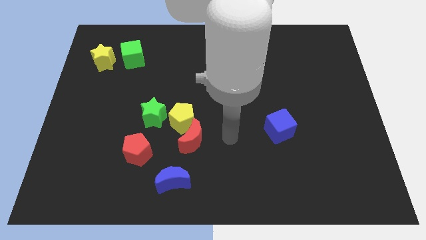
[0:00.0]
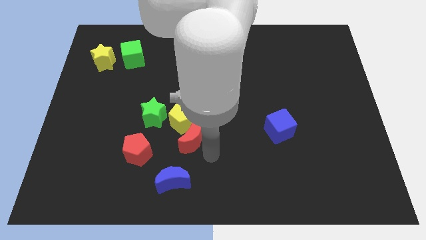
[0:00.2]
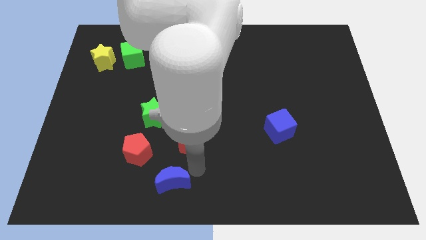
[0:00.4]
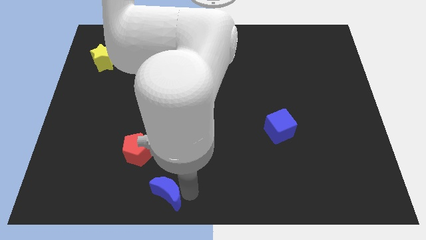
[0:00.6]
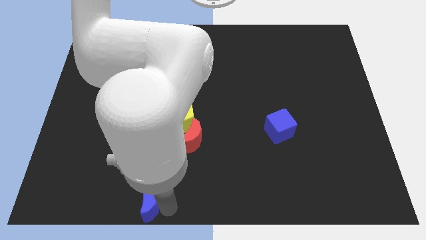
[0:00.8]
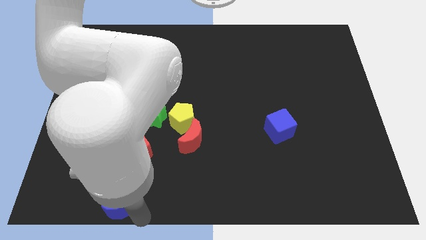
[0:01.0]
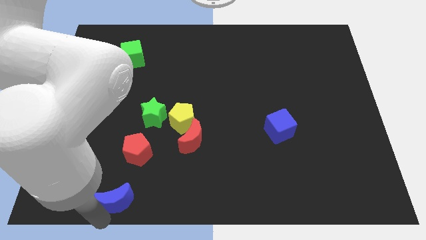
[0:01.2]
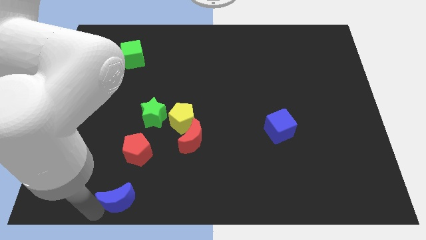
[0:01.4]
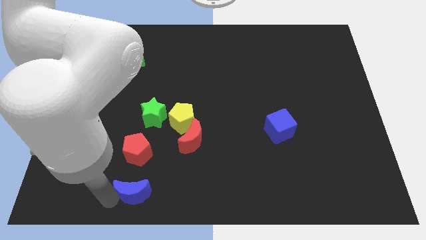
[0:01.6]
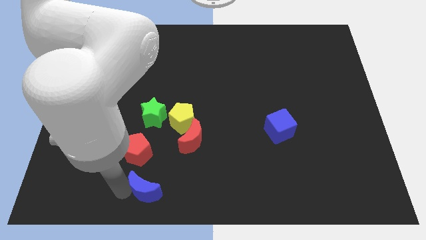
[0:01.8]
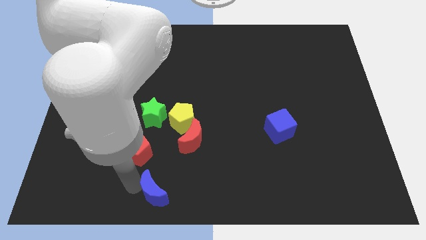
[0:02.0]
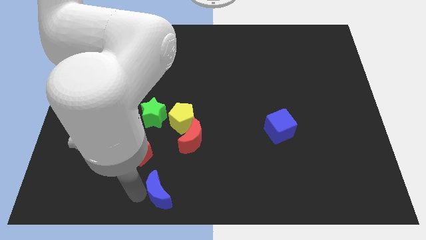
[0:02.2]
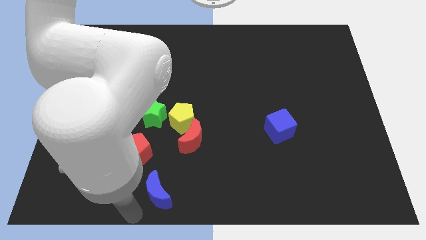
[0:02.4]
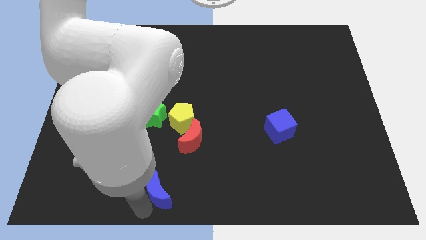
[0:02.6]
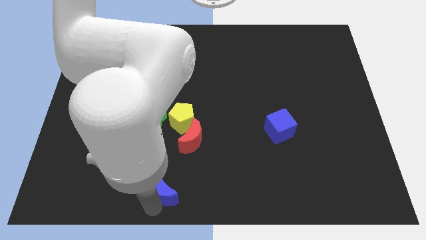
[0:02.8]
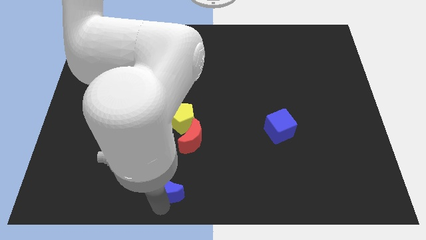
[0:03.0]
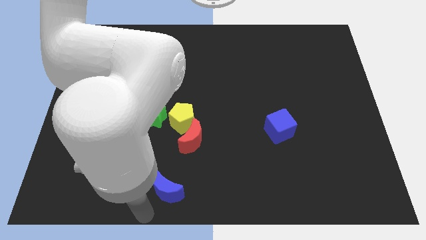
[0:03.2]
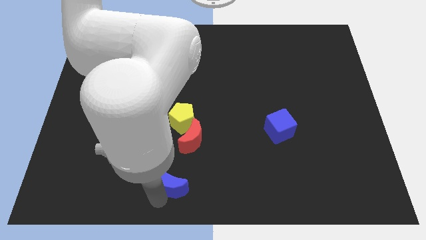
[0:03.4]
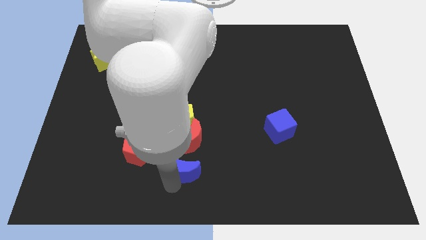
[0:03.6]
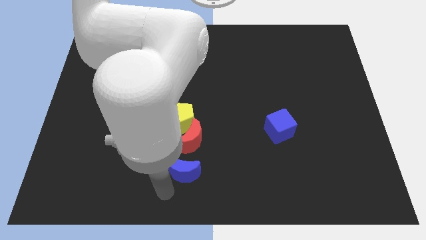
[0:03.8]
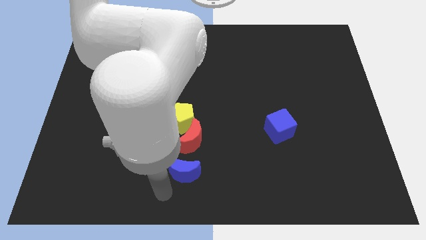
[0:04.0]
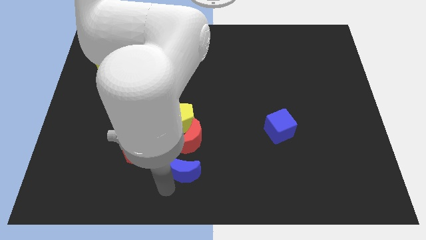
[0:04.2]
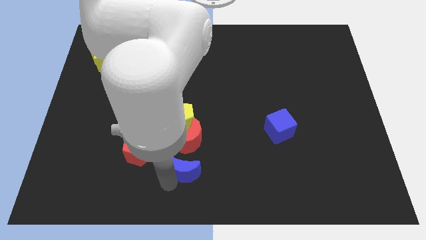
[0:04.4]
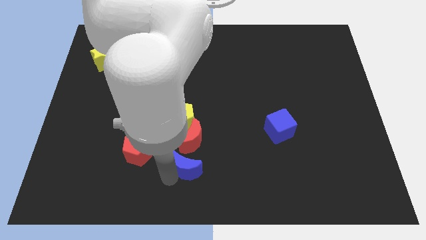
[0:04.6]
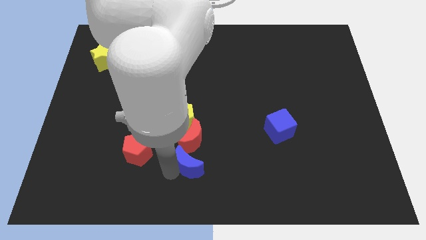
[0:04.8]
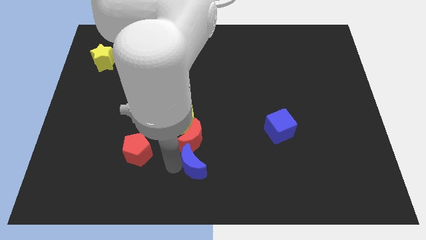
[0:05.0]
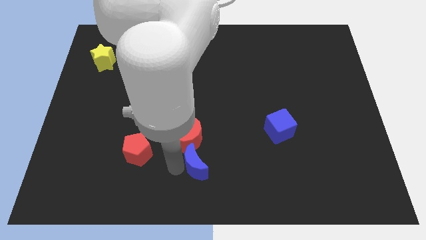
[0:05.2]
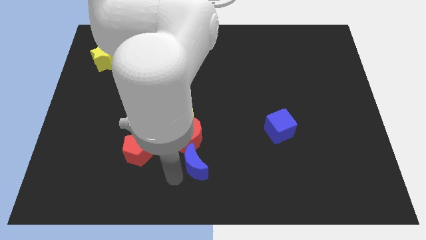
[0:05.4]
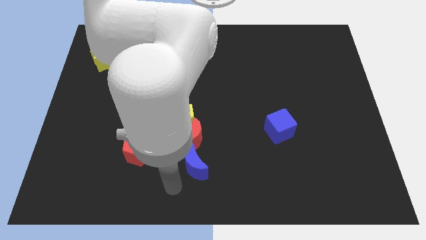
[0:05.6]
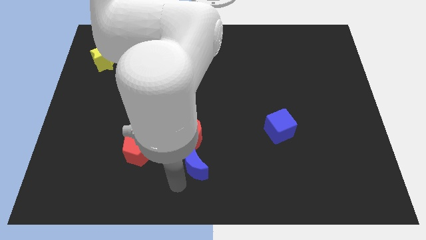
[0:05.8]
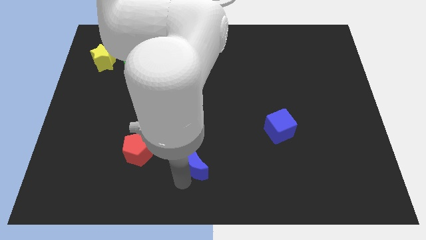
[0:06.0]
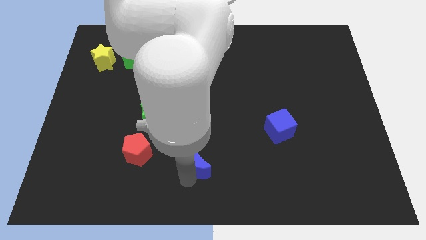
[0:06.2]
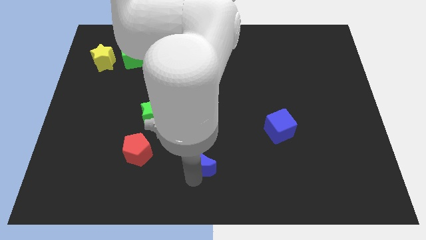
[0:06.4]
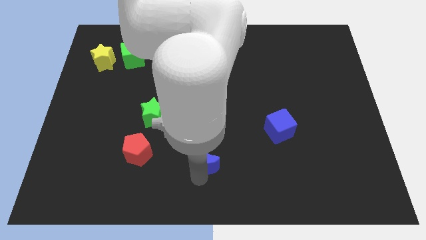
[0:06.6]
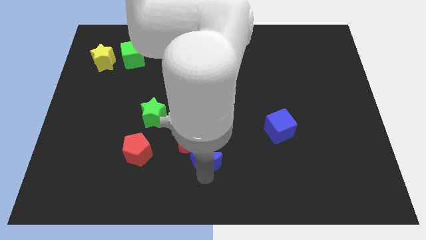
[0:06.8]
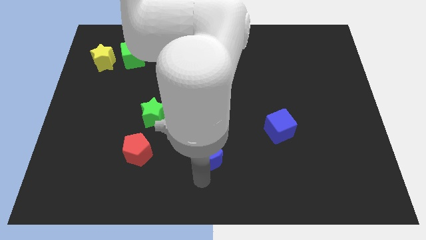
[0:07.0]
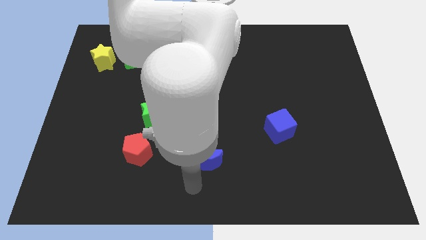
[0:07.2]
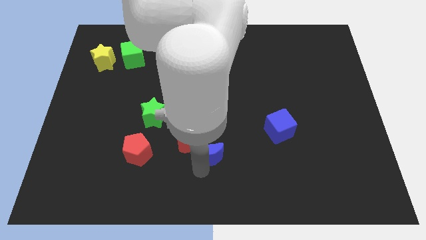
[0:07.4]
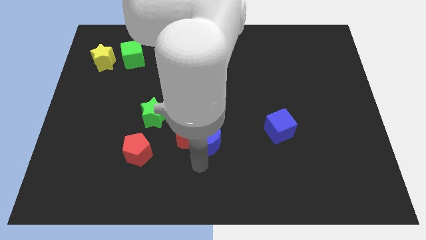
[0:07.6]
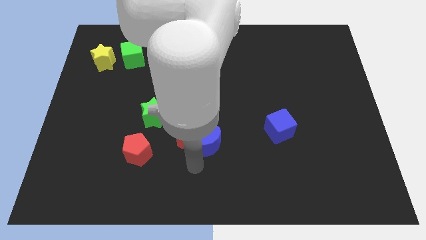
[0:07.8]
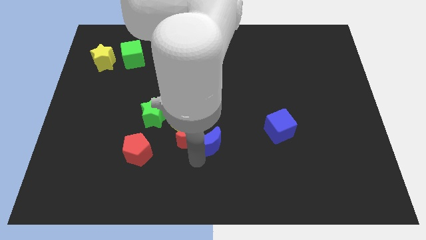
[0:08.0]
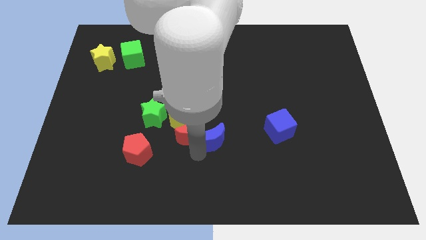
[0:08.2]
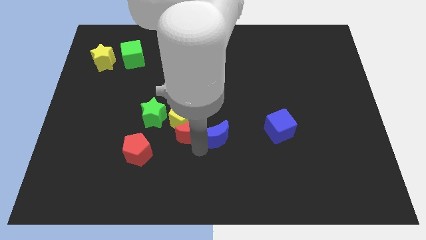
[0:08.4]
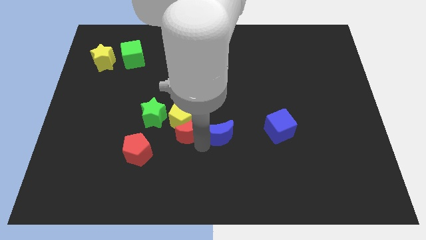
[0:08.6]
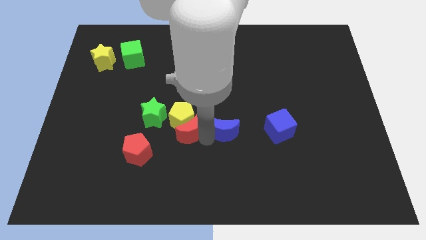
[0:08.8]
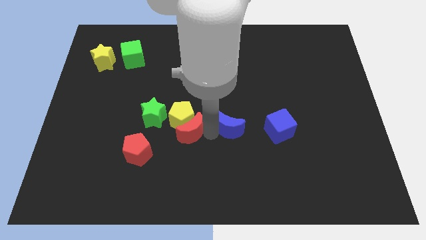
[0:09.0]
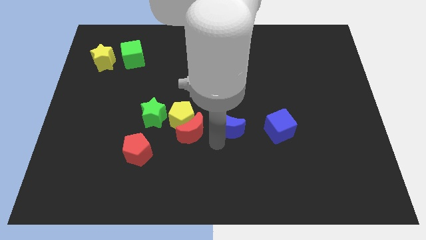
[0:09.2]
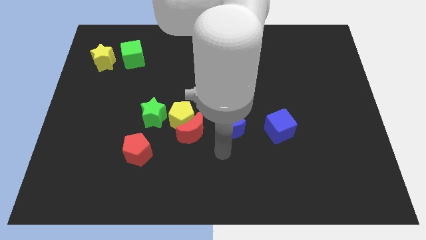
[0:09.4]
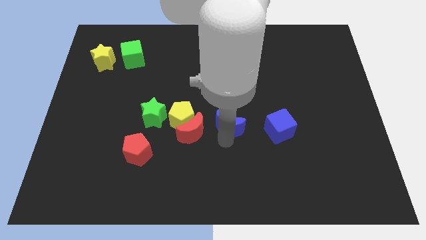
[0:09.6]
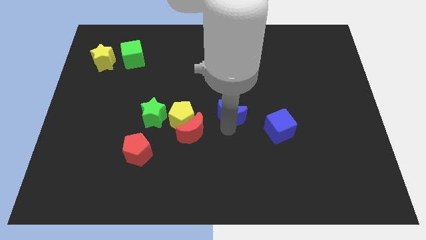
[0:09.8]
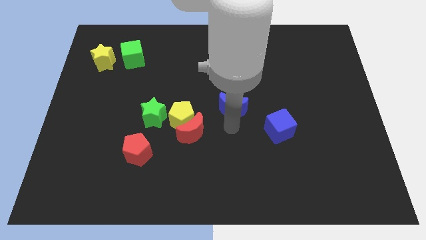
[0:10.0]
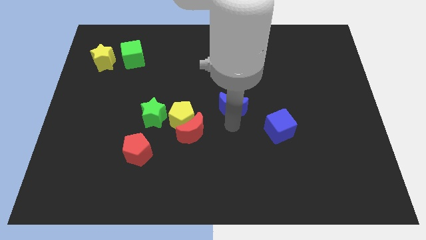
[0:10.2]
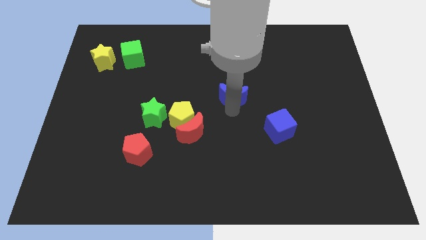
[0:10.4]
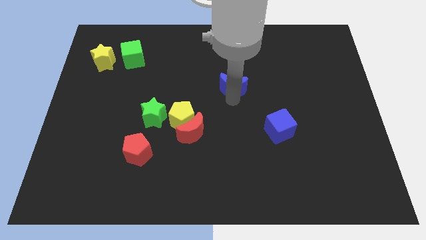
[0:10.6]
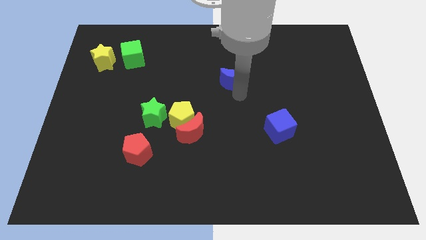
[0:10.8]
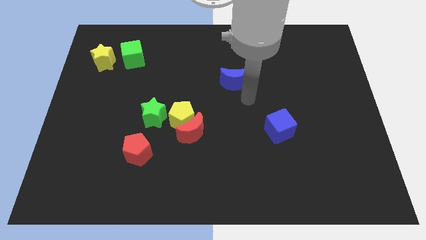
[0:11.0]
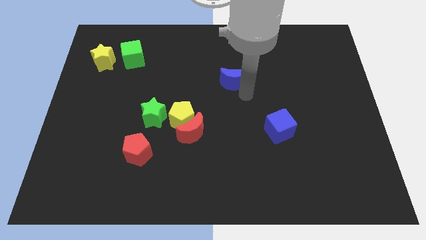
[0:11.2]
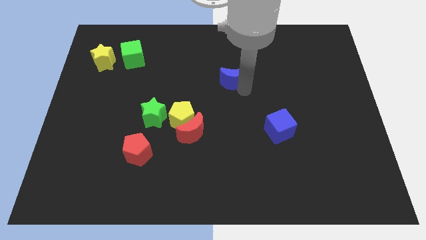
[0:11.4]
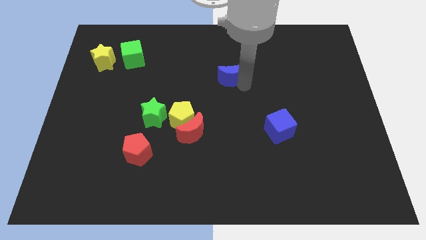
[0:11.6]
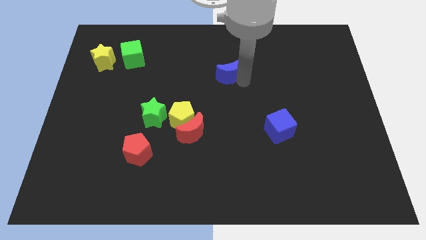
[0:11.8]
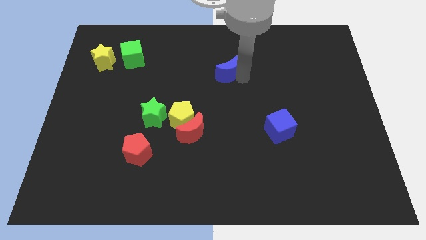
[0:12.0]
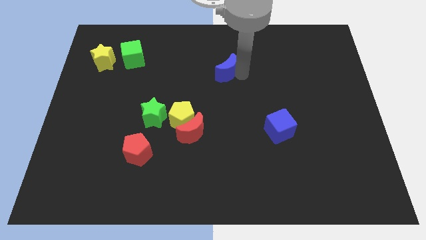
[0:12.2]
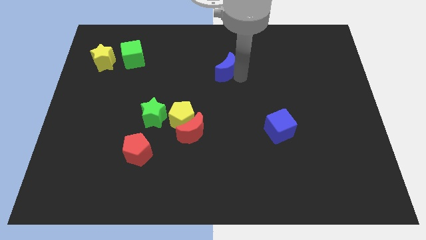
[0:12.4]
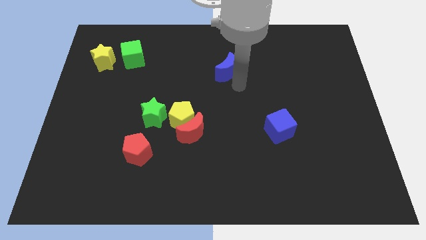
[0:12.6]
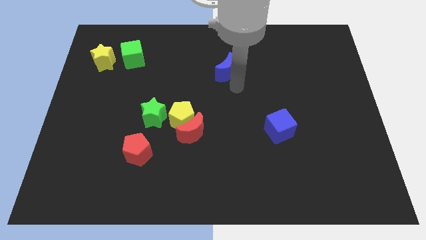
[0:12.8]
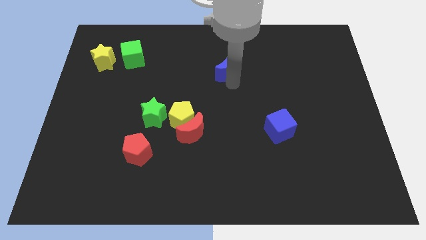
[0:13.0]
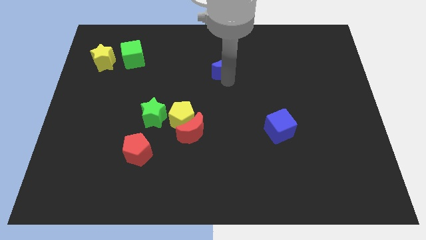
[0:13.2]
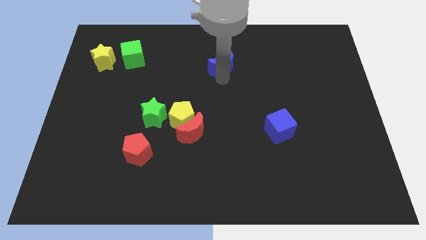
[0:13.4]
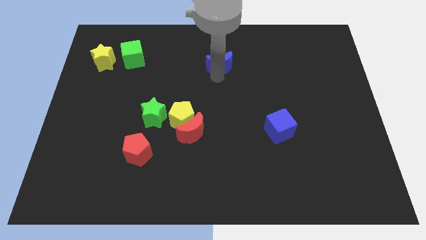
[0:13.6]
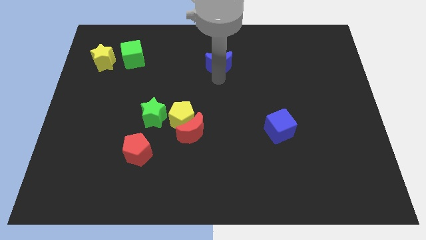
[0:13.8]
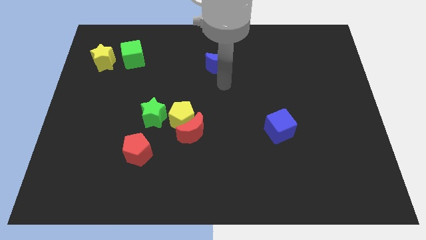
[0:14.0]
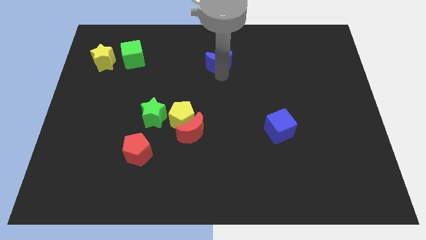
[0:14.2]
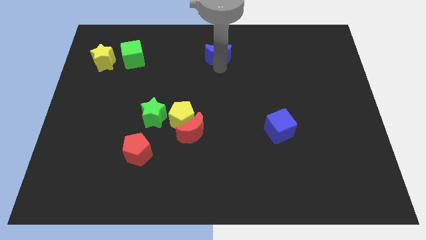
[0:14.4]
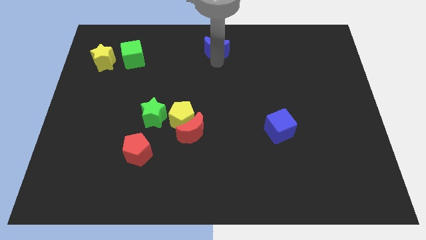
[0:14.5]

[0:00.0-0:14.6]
push the blue moon to the top

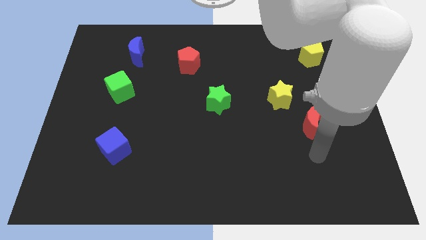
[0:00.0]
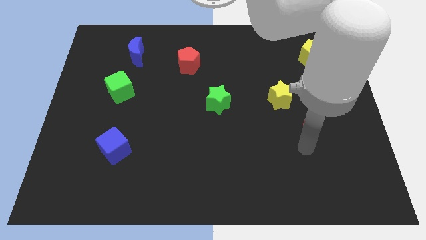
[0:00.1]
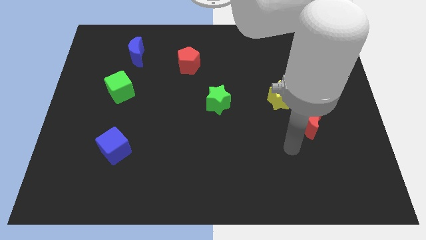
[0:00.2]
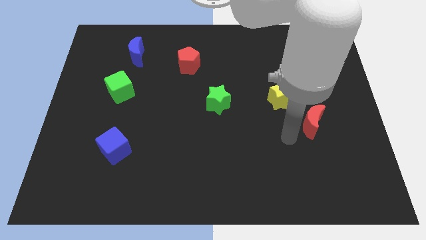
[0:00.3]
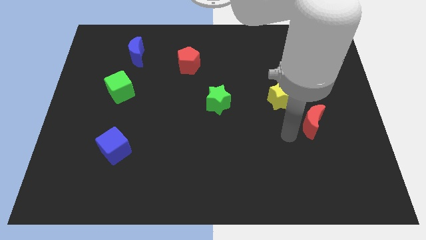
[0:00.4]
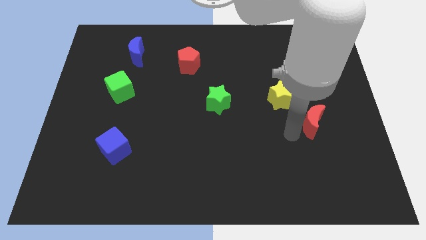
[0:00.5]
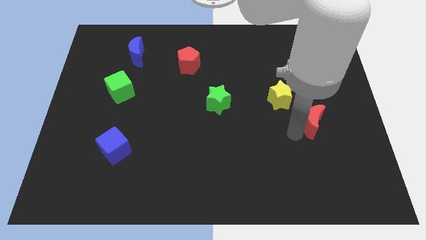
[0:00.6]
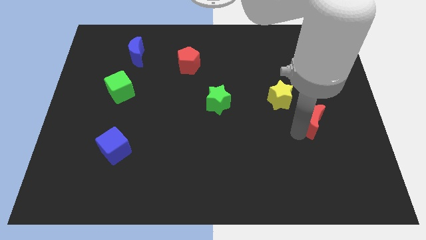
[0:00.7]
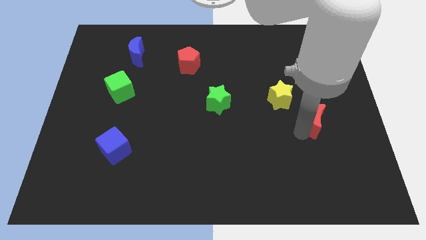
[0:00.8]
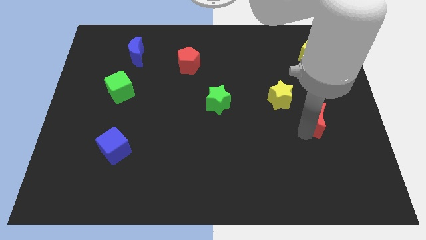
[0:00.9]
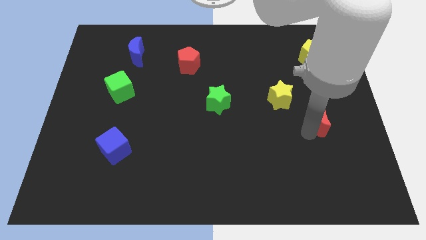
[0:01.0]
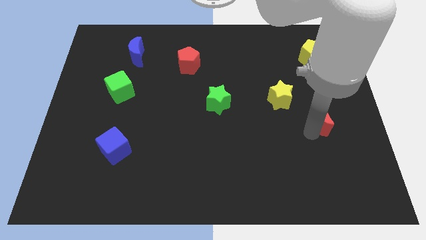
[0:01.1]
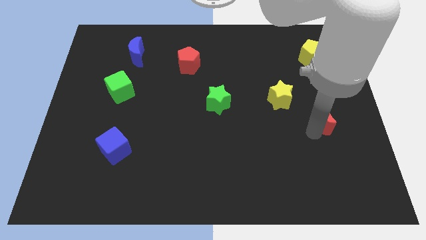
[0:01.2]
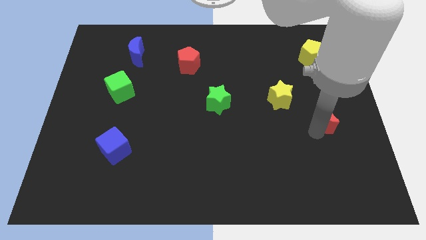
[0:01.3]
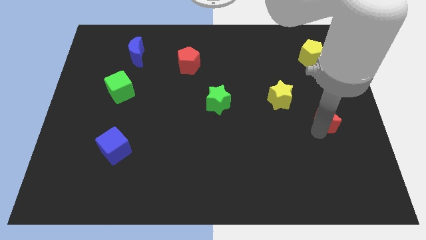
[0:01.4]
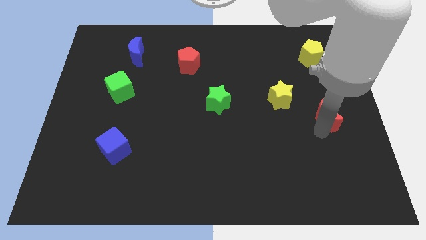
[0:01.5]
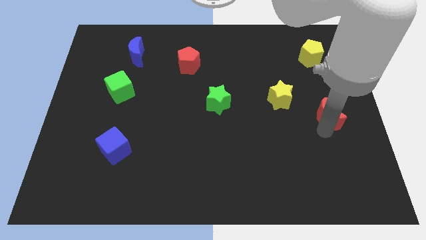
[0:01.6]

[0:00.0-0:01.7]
put the red moon to the center right
